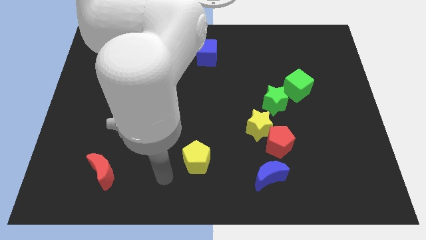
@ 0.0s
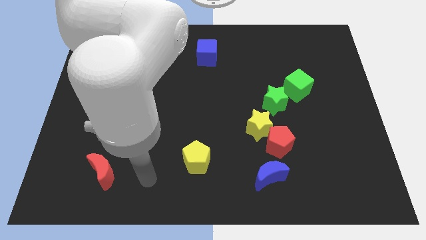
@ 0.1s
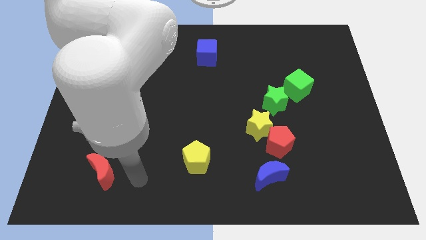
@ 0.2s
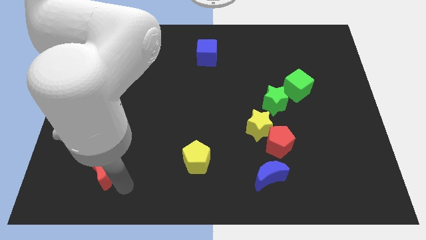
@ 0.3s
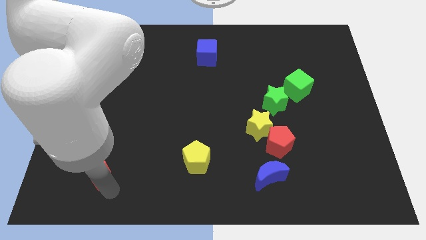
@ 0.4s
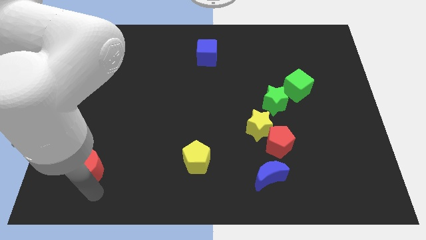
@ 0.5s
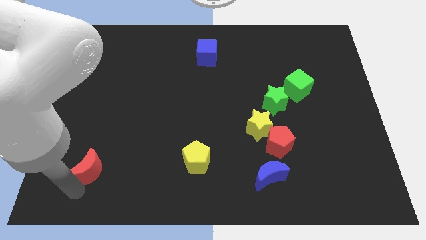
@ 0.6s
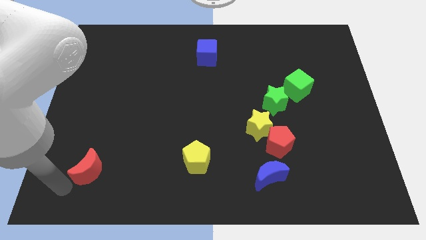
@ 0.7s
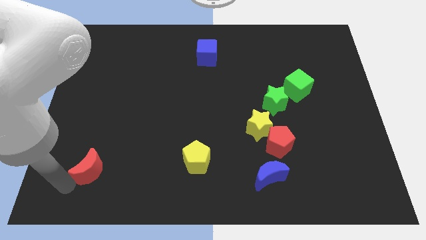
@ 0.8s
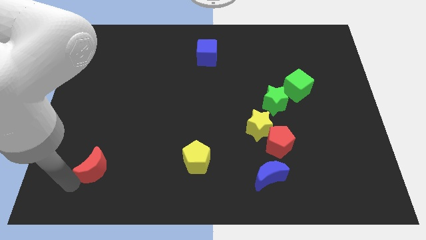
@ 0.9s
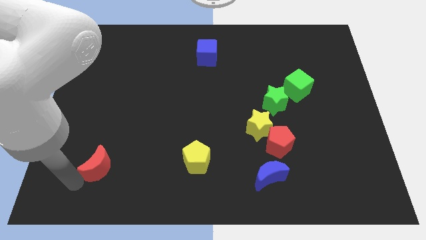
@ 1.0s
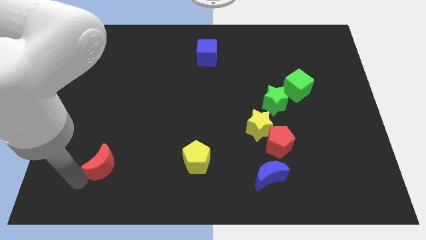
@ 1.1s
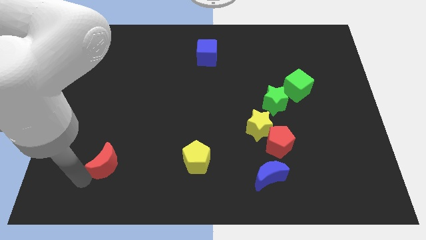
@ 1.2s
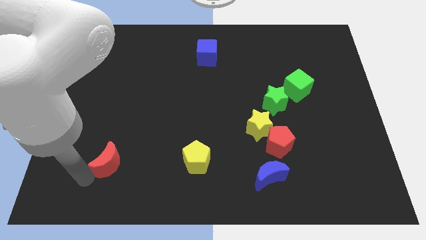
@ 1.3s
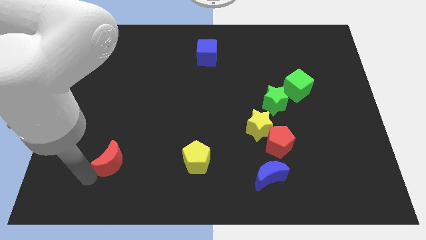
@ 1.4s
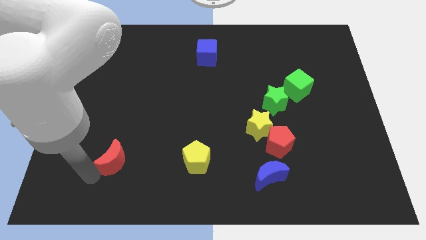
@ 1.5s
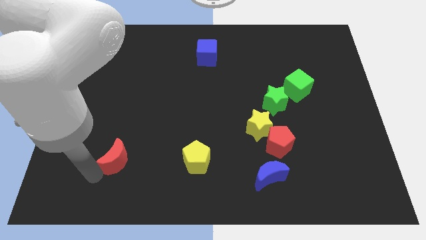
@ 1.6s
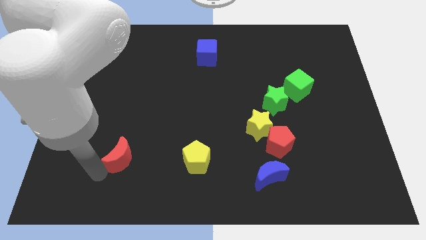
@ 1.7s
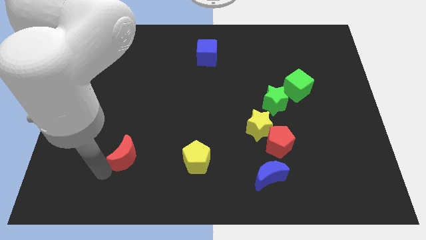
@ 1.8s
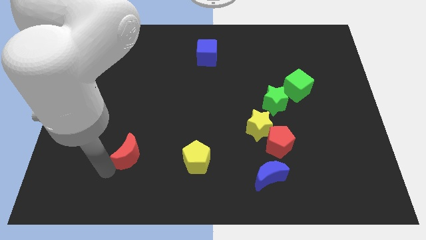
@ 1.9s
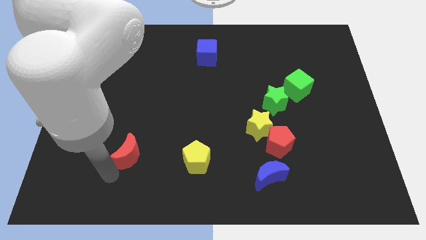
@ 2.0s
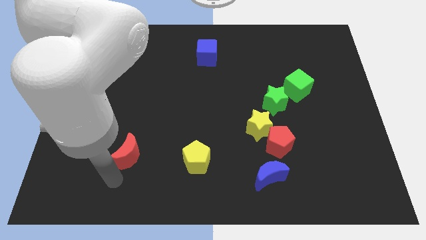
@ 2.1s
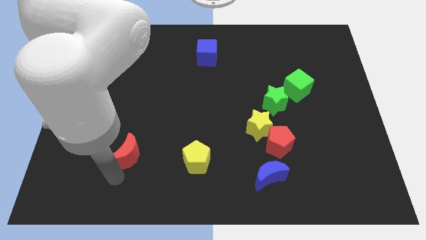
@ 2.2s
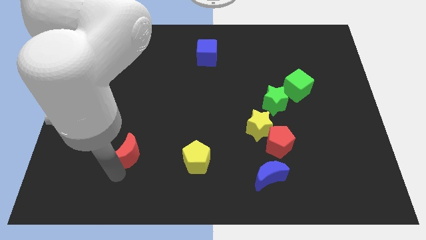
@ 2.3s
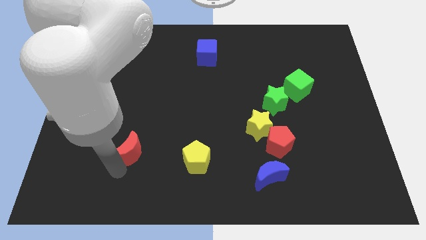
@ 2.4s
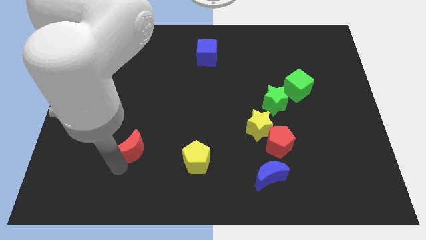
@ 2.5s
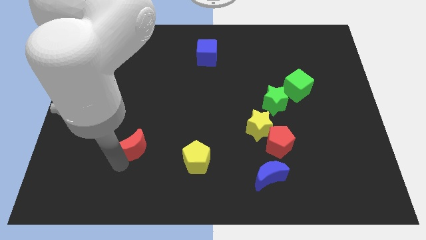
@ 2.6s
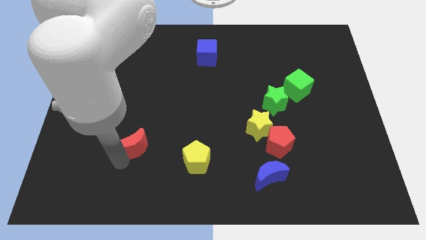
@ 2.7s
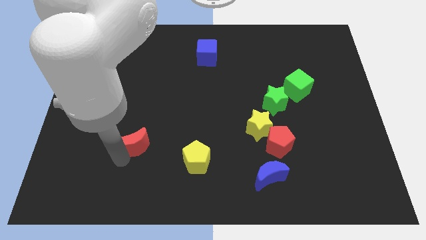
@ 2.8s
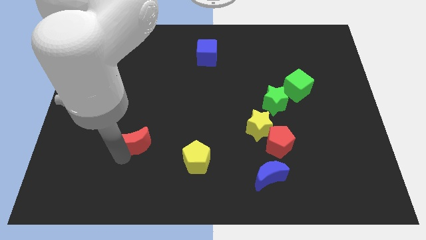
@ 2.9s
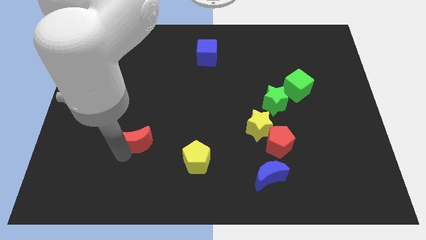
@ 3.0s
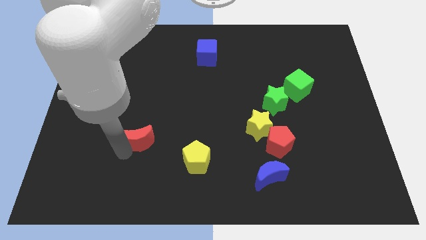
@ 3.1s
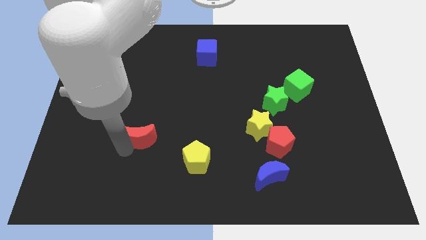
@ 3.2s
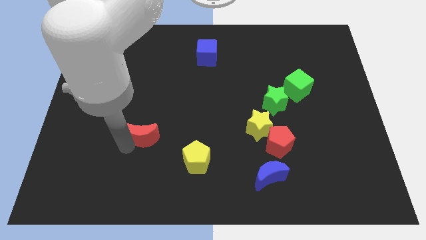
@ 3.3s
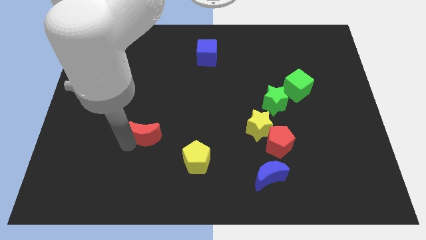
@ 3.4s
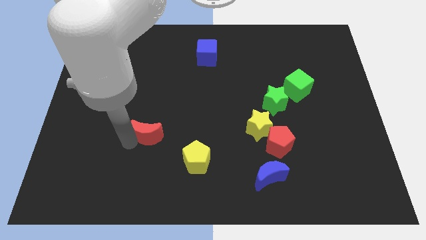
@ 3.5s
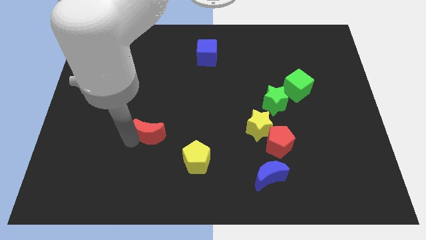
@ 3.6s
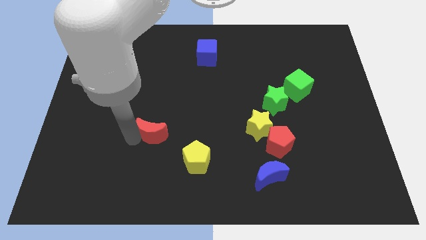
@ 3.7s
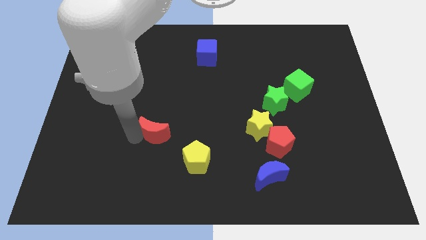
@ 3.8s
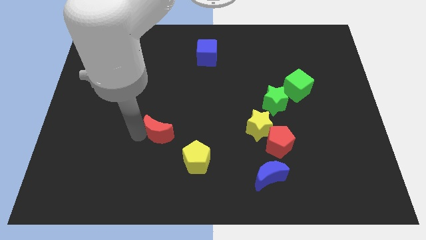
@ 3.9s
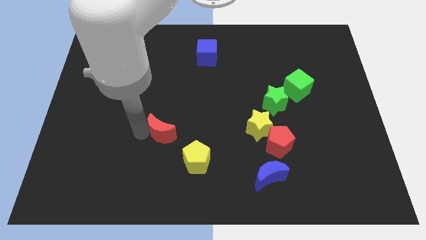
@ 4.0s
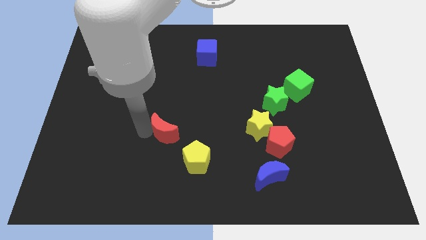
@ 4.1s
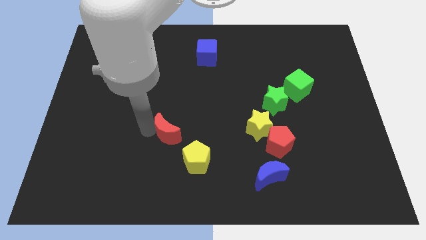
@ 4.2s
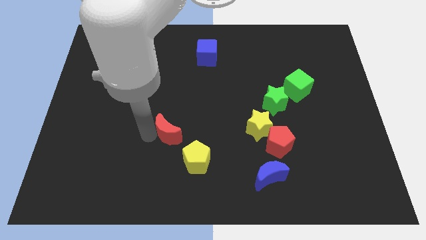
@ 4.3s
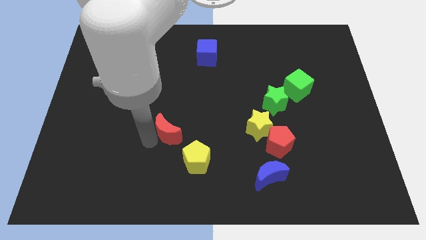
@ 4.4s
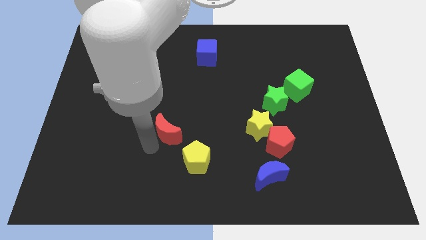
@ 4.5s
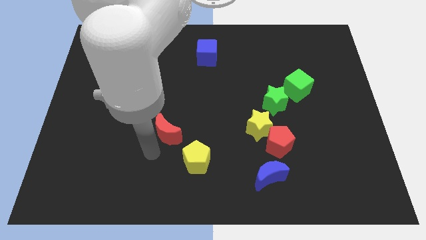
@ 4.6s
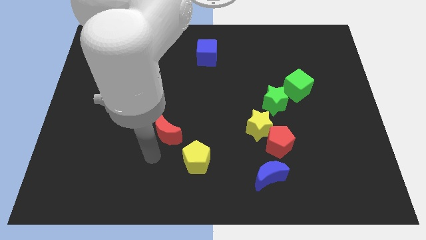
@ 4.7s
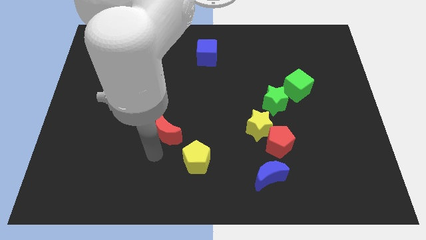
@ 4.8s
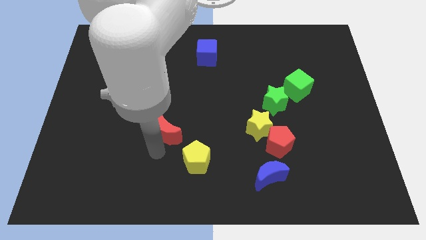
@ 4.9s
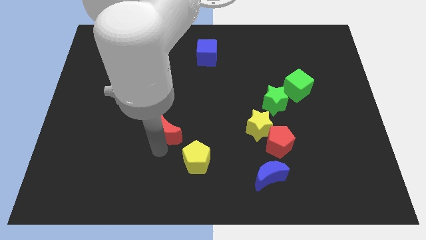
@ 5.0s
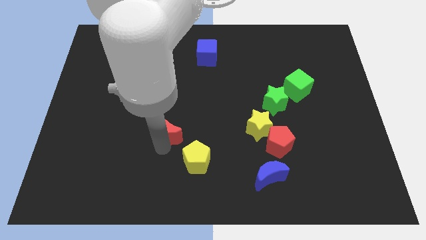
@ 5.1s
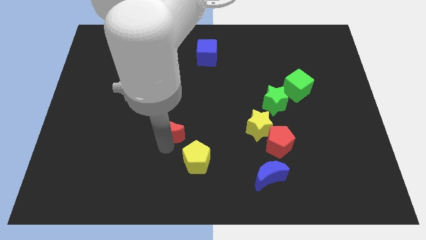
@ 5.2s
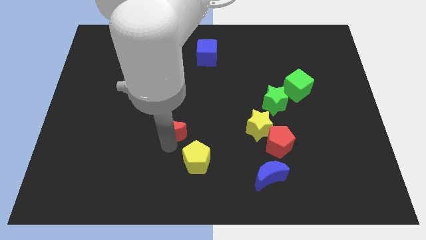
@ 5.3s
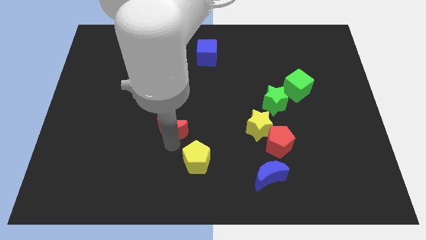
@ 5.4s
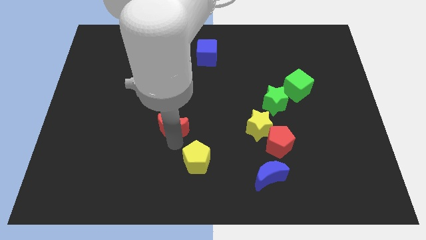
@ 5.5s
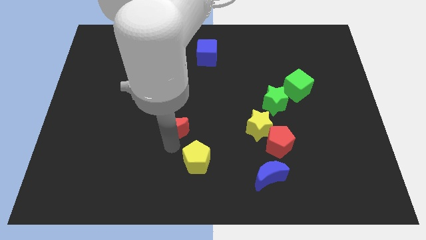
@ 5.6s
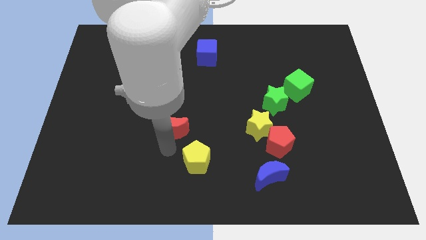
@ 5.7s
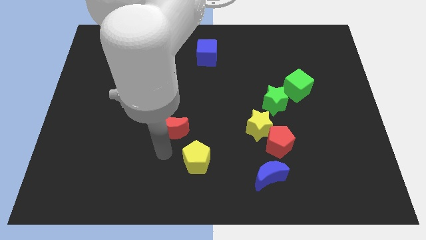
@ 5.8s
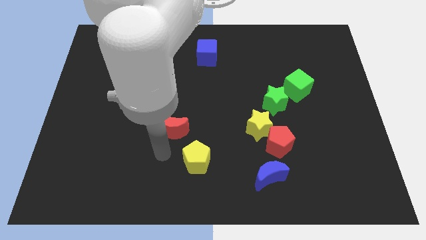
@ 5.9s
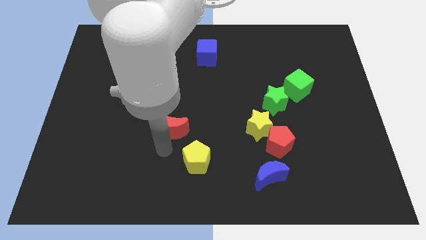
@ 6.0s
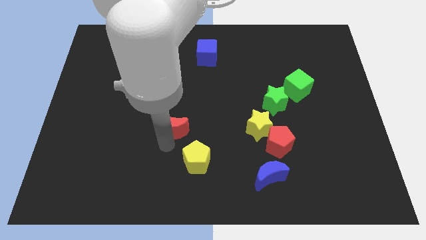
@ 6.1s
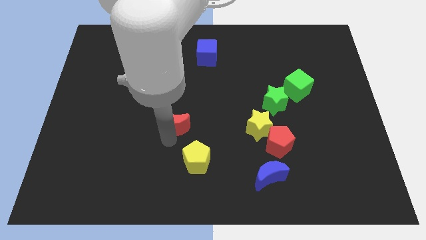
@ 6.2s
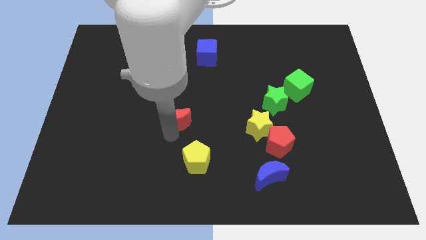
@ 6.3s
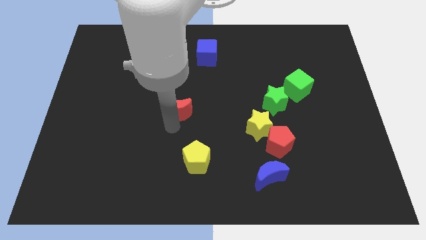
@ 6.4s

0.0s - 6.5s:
push the red moon upwards and then to the right

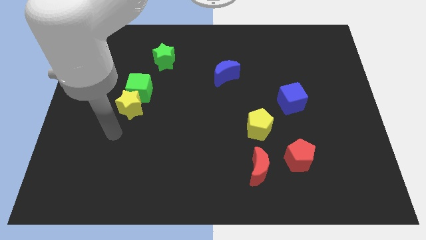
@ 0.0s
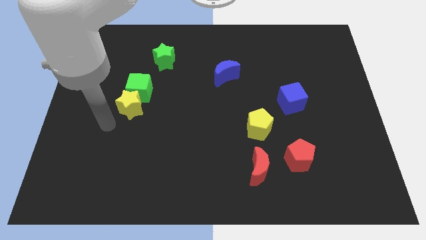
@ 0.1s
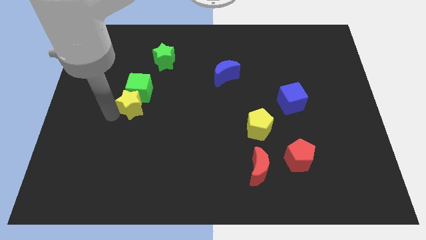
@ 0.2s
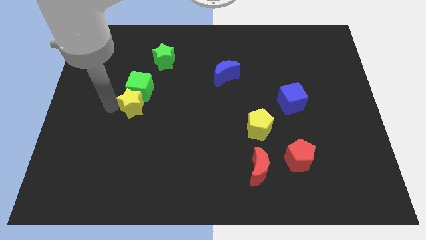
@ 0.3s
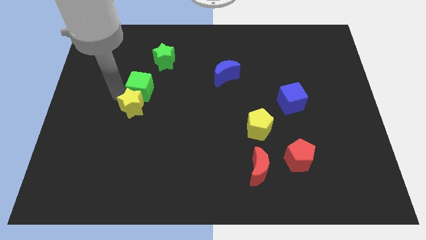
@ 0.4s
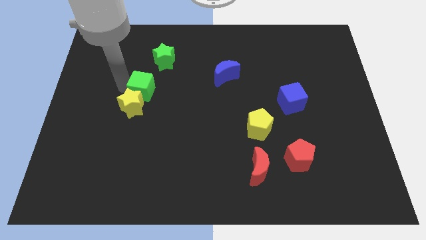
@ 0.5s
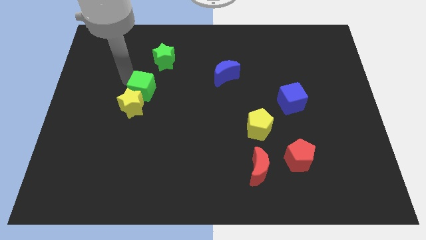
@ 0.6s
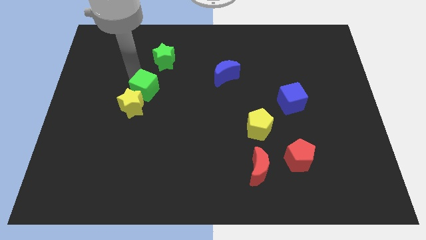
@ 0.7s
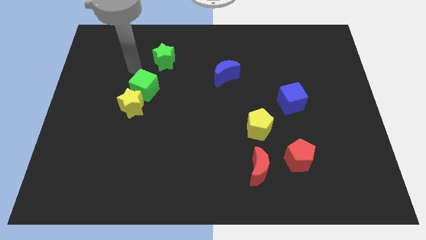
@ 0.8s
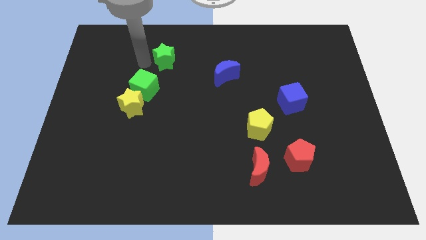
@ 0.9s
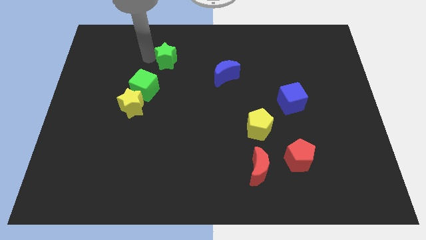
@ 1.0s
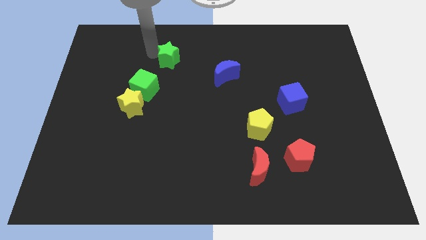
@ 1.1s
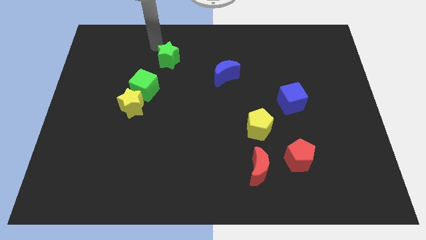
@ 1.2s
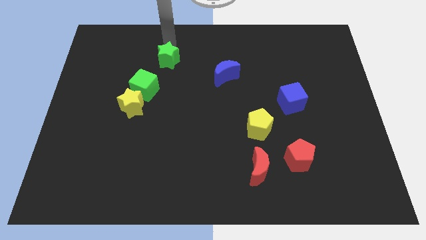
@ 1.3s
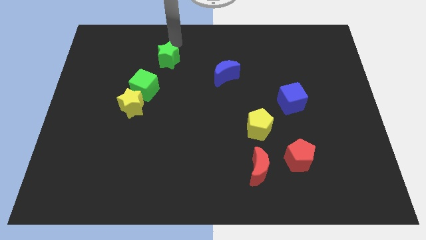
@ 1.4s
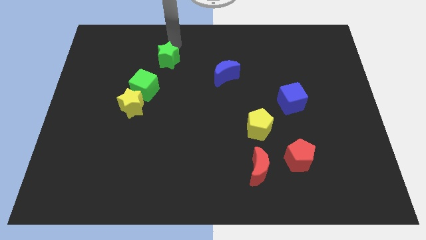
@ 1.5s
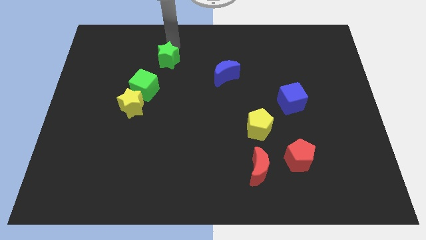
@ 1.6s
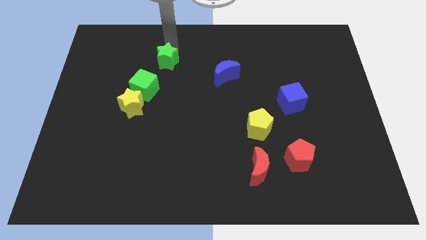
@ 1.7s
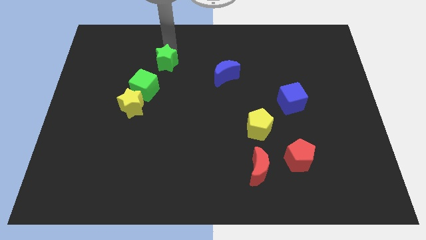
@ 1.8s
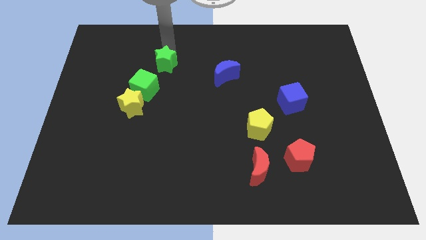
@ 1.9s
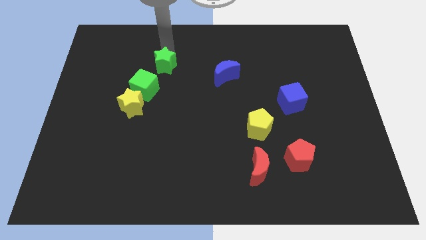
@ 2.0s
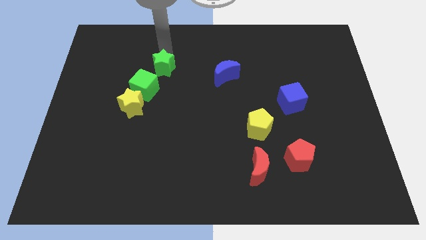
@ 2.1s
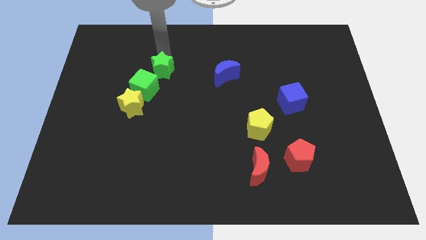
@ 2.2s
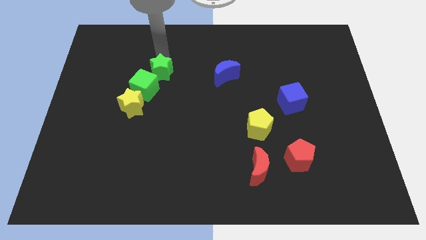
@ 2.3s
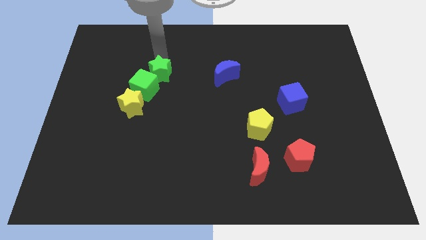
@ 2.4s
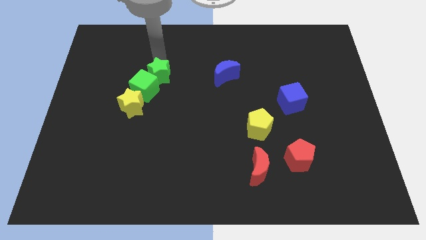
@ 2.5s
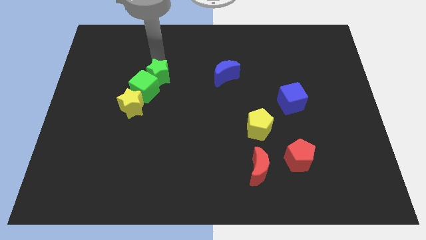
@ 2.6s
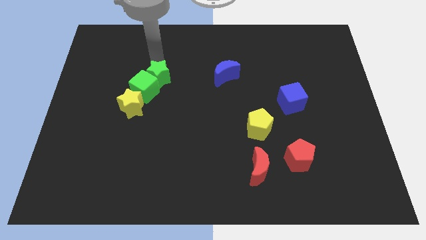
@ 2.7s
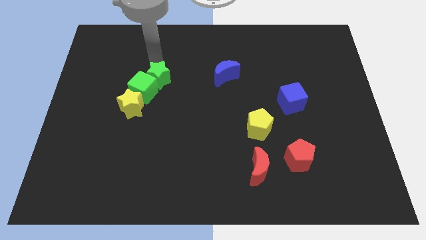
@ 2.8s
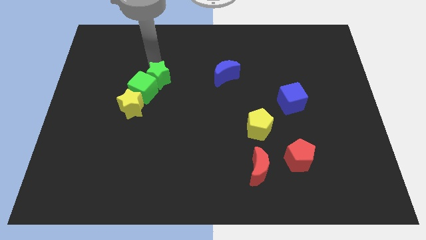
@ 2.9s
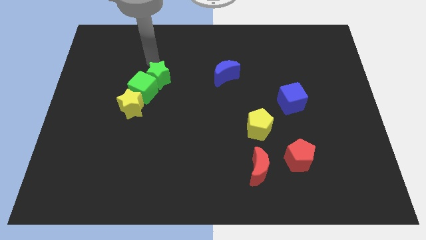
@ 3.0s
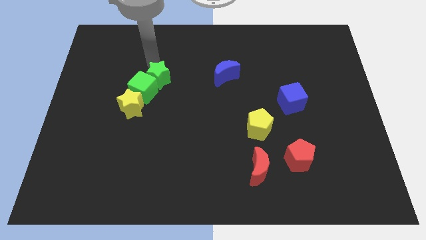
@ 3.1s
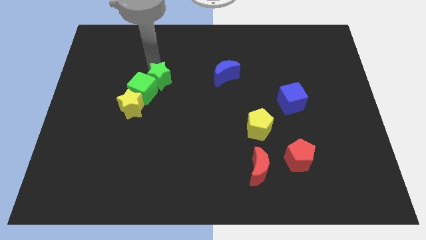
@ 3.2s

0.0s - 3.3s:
push the green star a bit downwards
